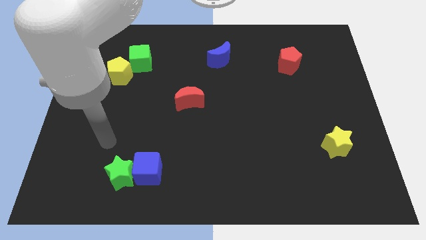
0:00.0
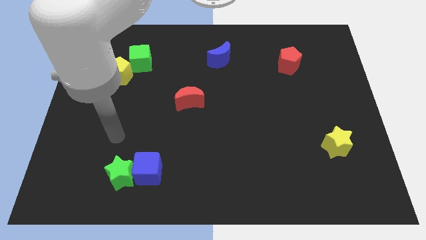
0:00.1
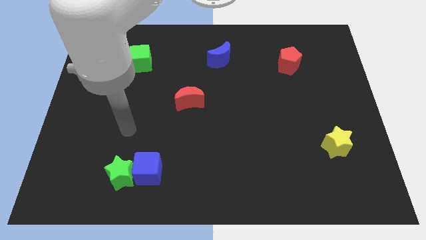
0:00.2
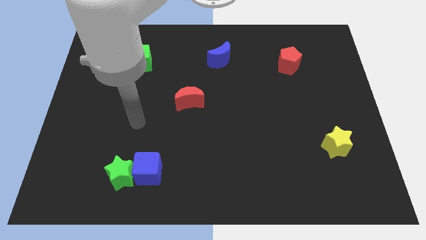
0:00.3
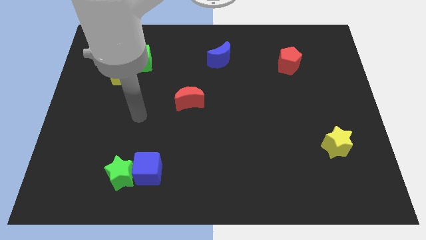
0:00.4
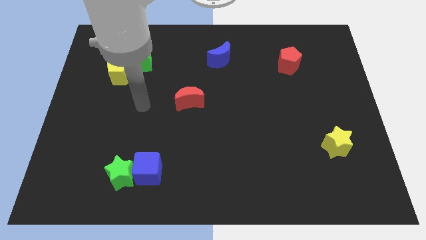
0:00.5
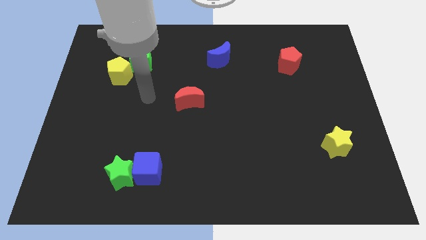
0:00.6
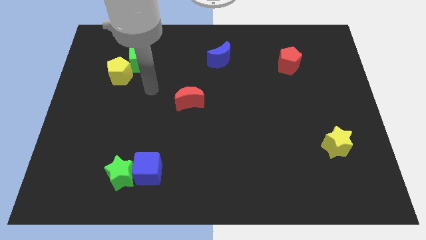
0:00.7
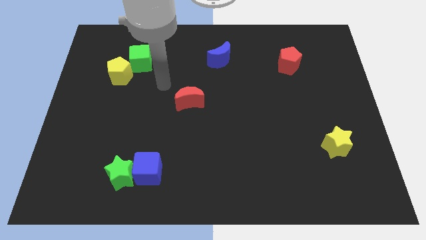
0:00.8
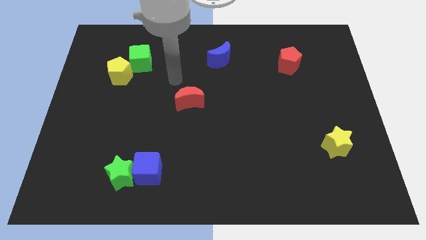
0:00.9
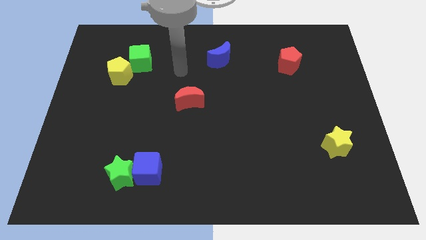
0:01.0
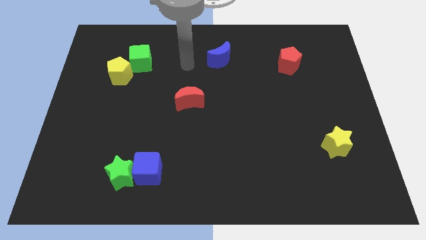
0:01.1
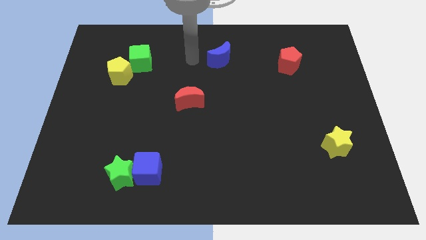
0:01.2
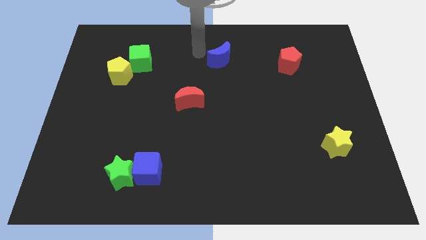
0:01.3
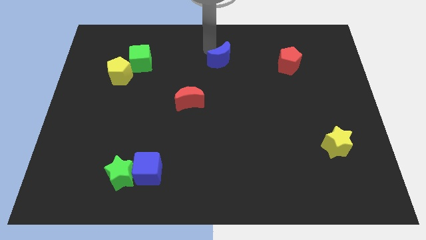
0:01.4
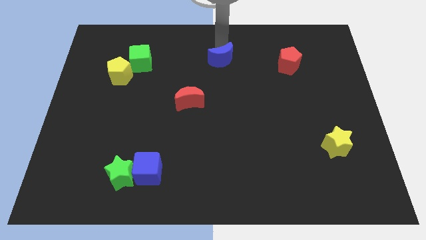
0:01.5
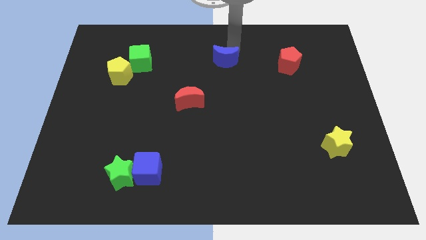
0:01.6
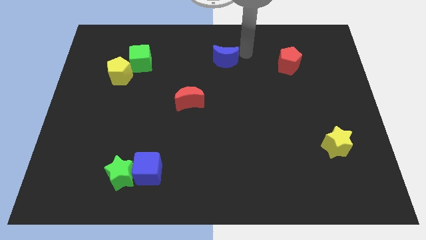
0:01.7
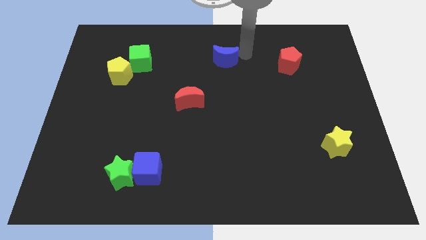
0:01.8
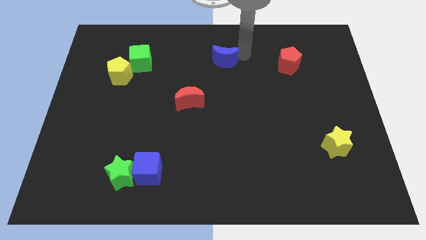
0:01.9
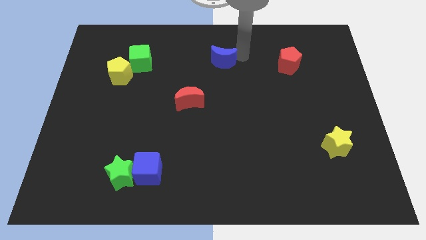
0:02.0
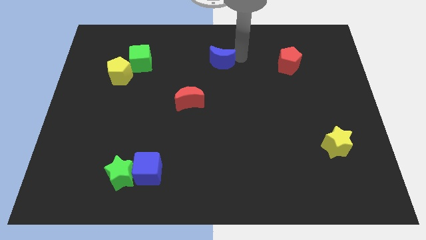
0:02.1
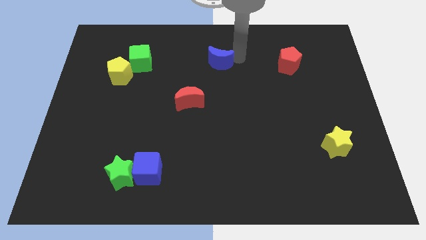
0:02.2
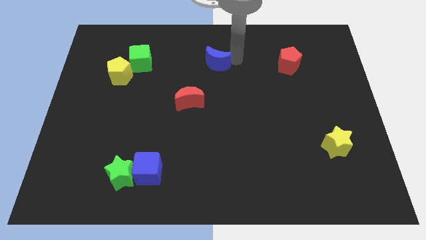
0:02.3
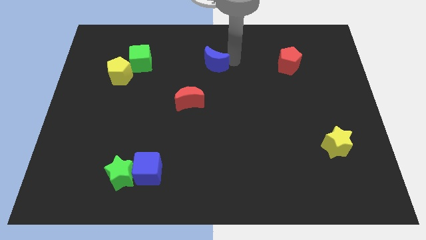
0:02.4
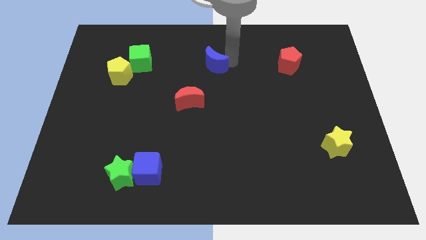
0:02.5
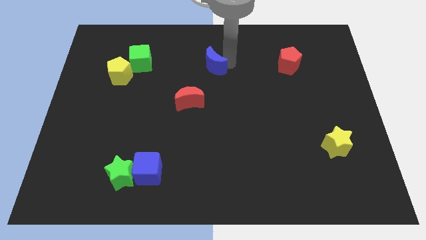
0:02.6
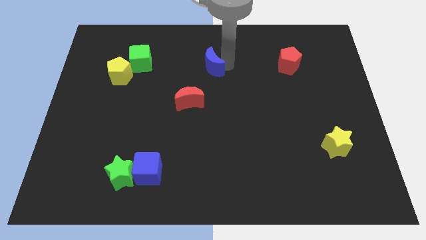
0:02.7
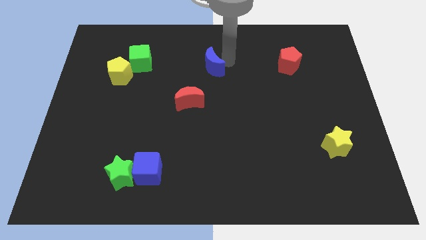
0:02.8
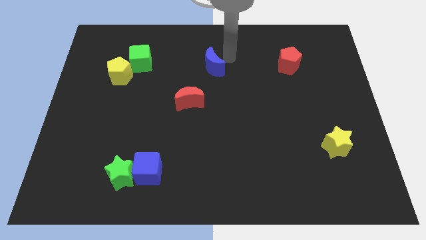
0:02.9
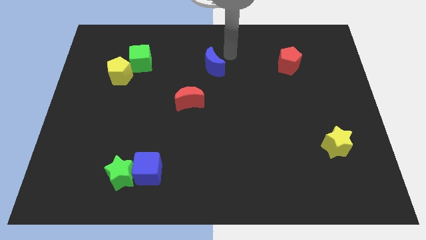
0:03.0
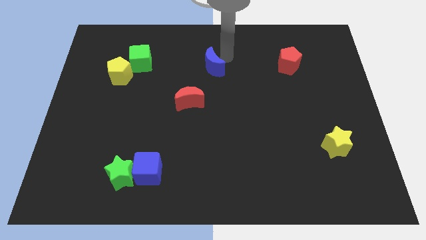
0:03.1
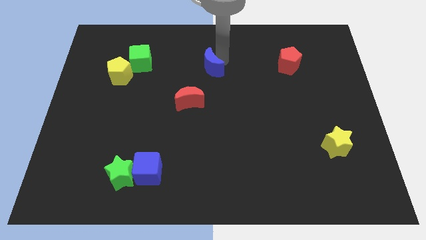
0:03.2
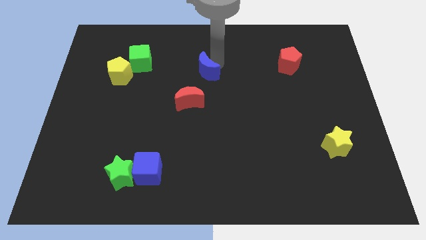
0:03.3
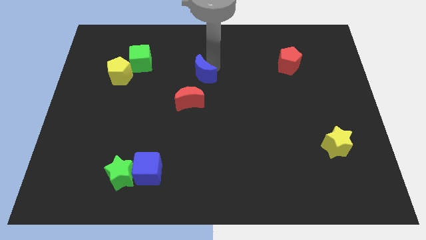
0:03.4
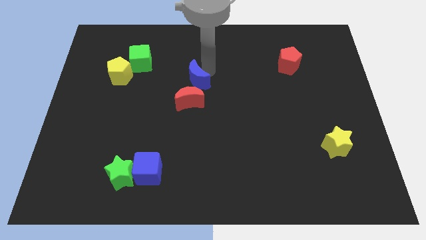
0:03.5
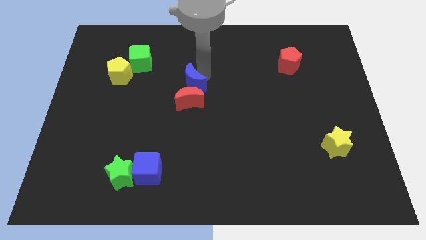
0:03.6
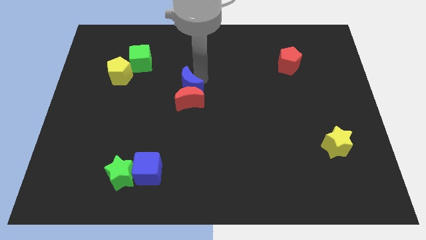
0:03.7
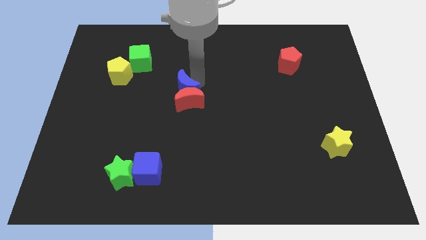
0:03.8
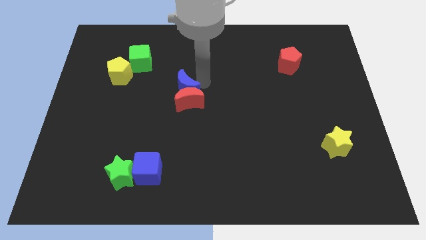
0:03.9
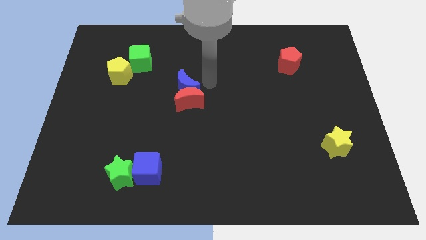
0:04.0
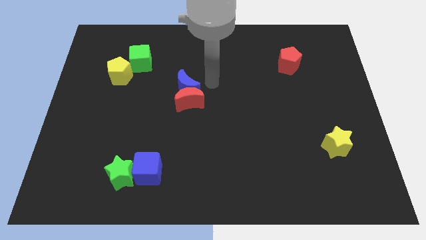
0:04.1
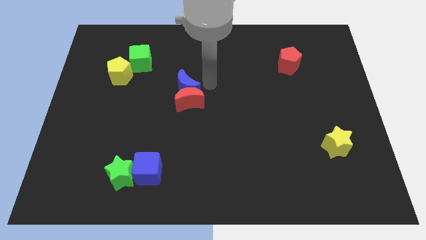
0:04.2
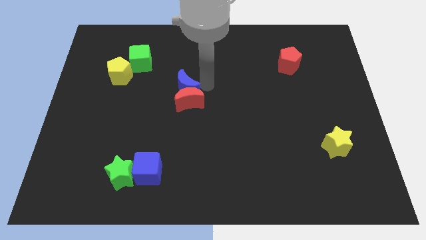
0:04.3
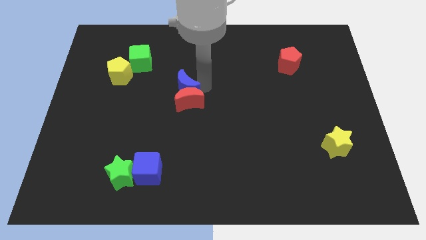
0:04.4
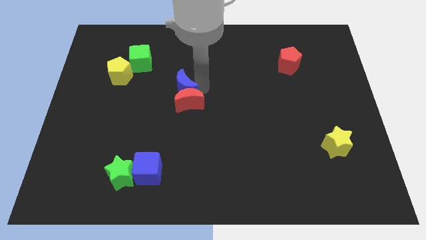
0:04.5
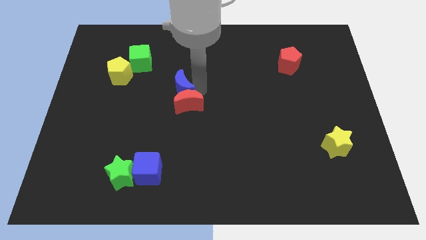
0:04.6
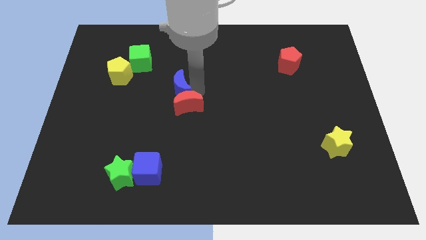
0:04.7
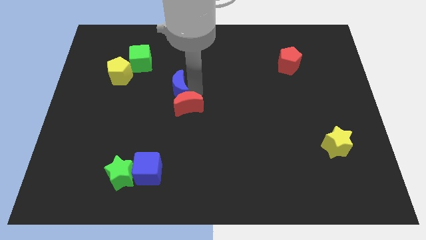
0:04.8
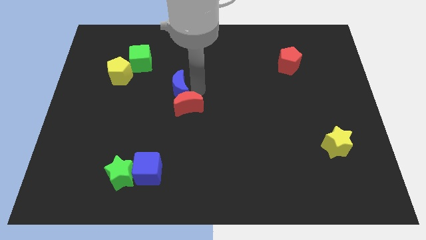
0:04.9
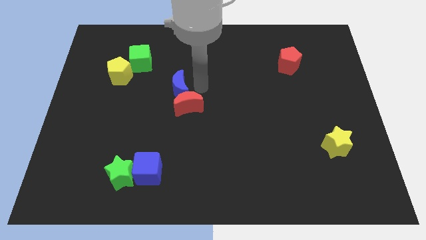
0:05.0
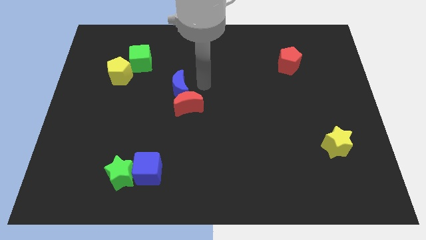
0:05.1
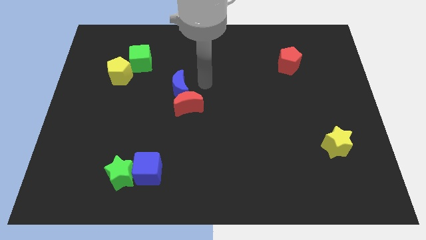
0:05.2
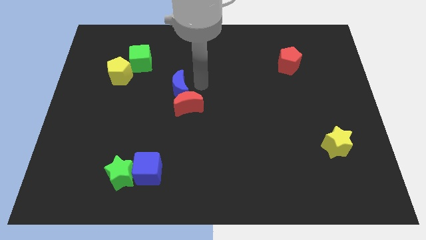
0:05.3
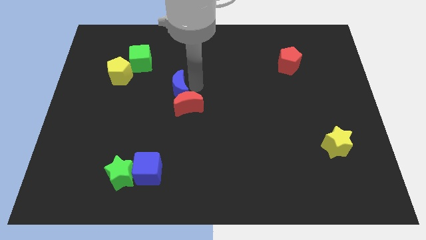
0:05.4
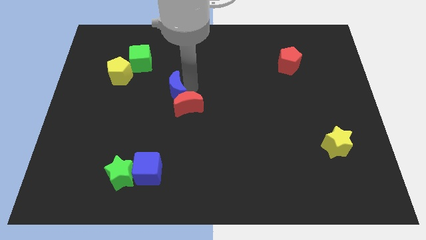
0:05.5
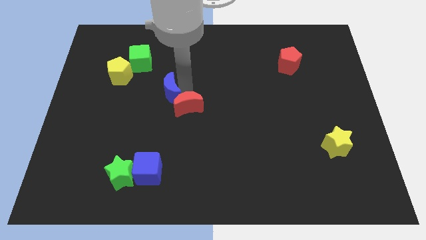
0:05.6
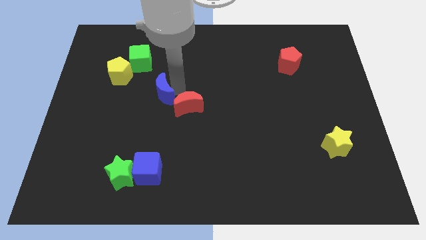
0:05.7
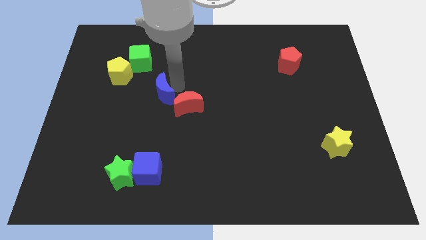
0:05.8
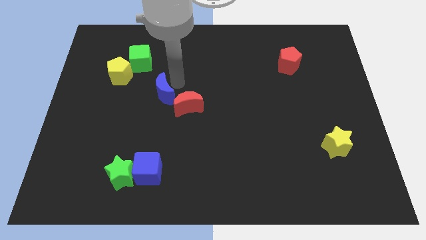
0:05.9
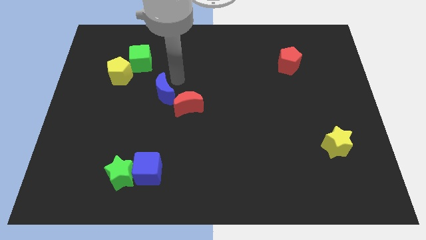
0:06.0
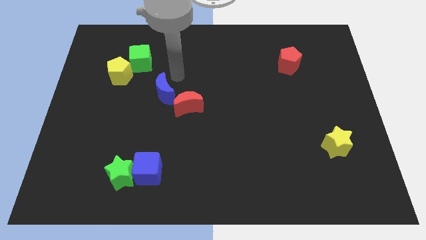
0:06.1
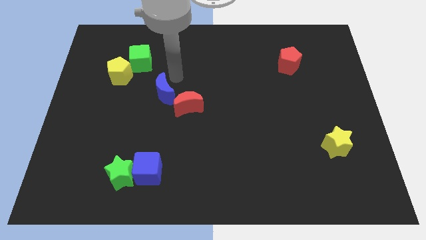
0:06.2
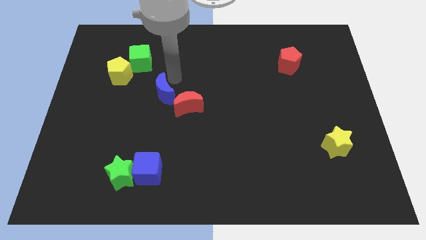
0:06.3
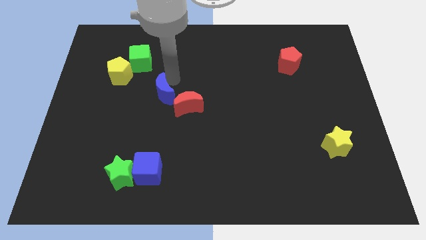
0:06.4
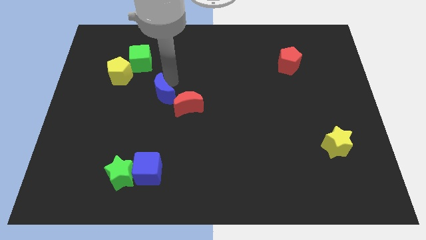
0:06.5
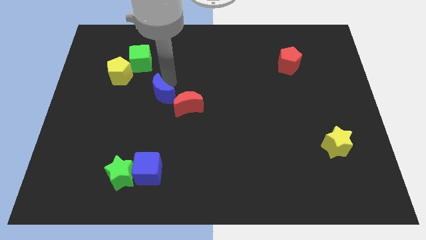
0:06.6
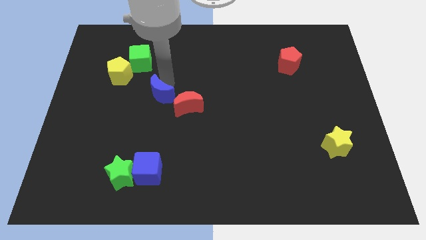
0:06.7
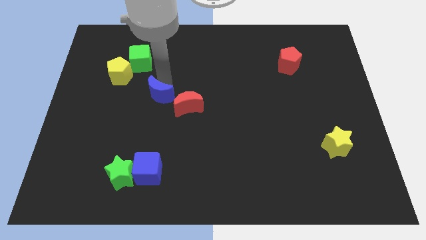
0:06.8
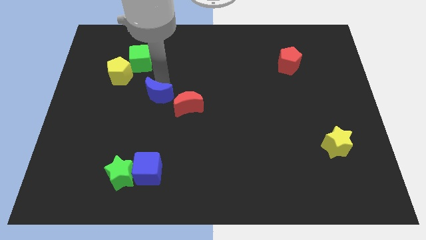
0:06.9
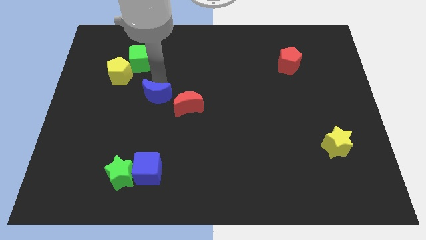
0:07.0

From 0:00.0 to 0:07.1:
move the blue moon down and left diagonally

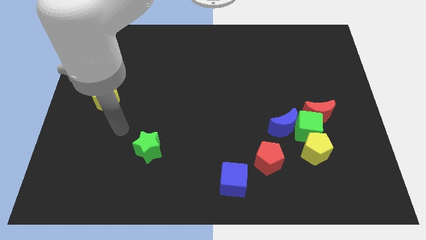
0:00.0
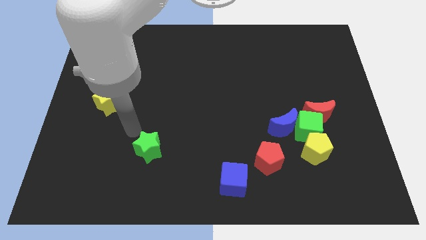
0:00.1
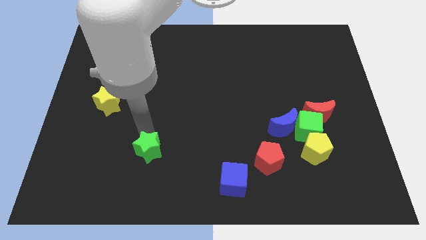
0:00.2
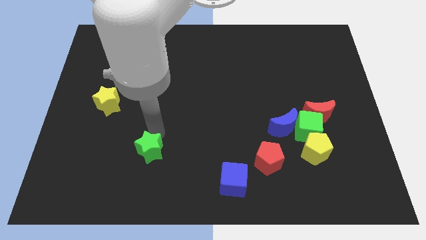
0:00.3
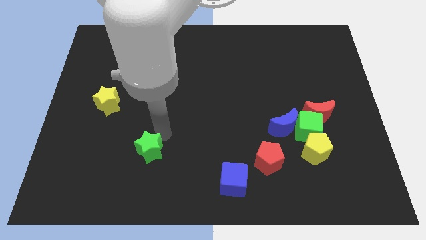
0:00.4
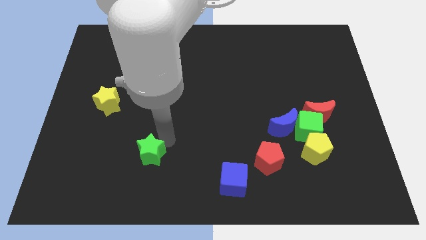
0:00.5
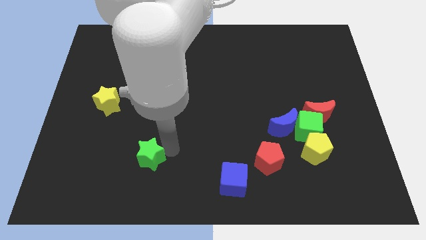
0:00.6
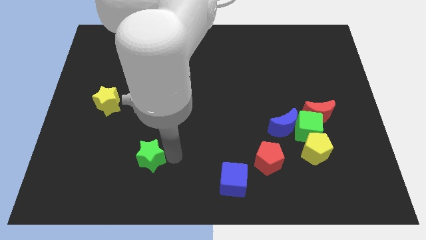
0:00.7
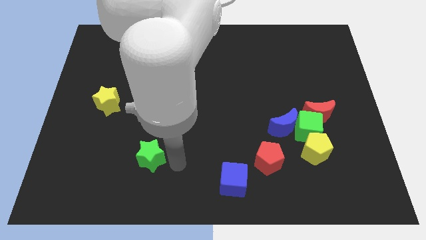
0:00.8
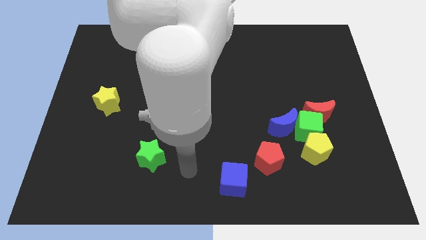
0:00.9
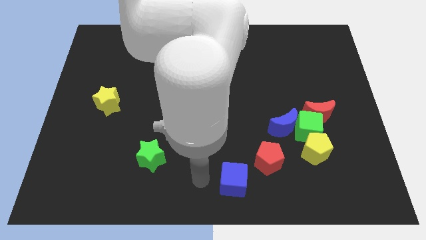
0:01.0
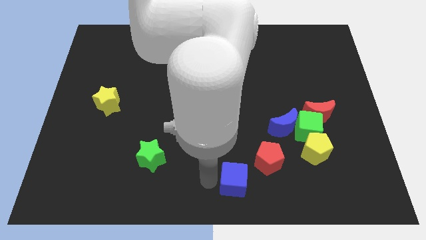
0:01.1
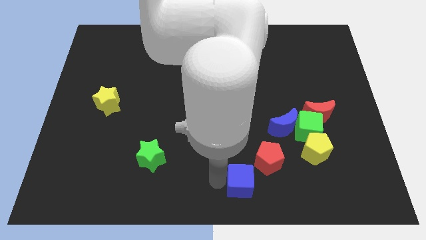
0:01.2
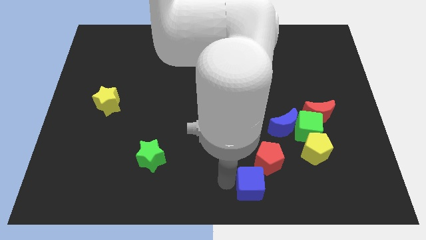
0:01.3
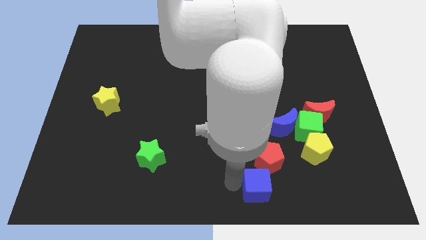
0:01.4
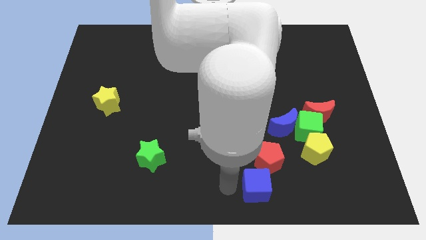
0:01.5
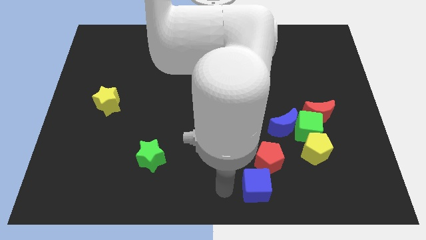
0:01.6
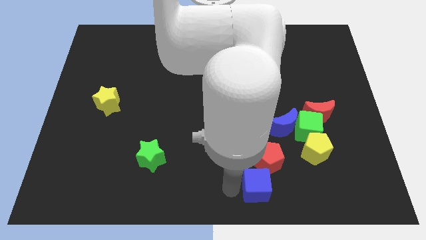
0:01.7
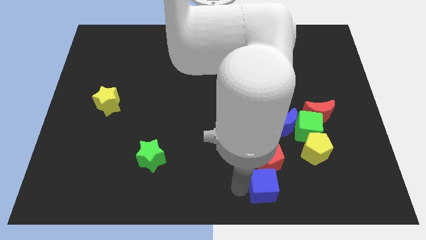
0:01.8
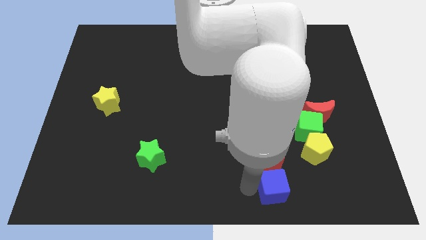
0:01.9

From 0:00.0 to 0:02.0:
slightly push the blue cube right
